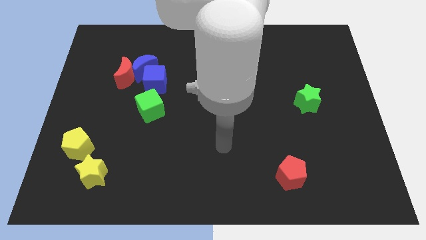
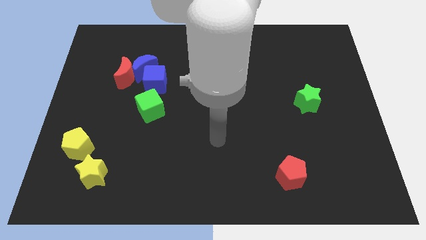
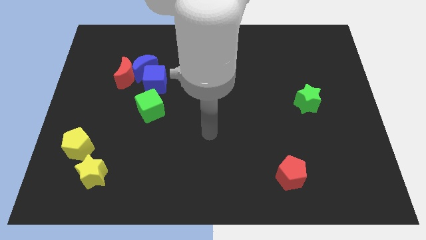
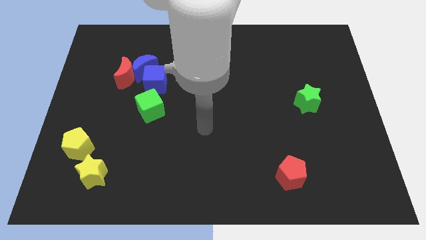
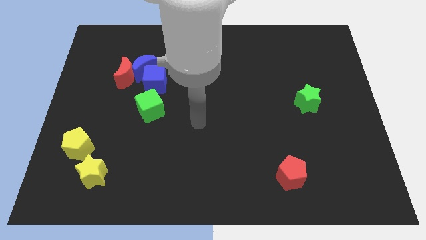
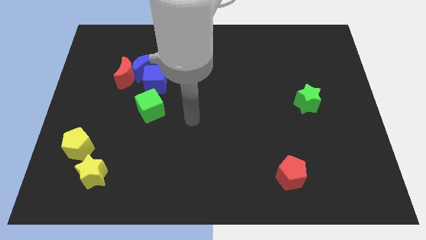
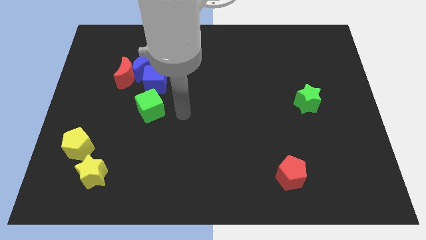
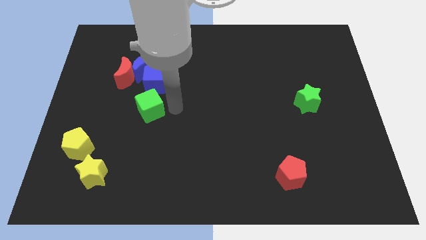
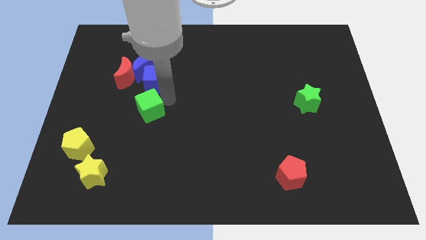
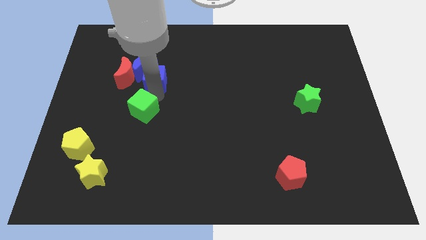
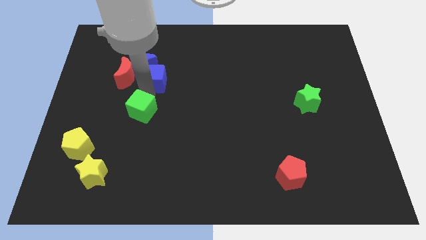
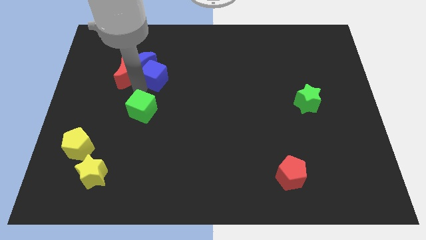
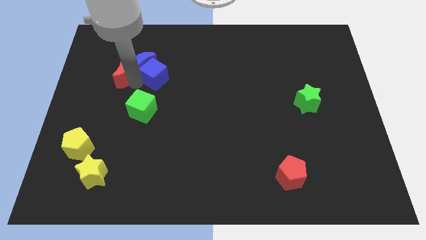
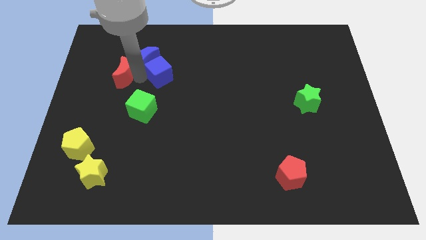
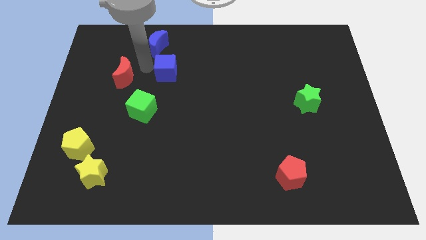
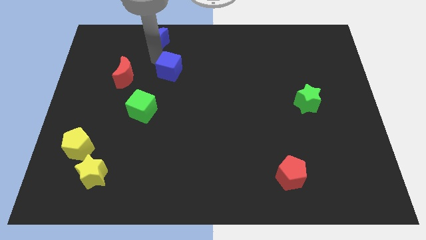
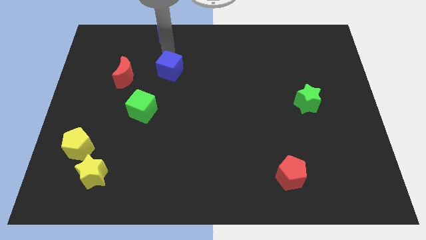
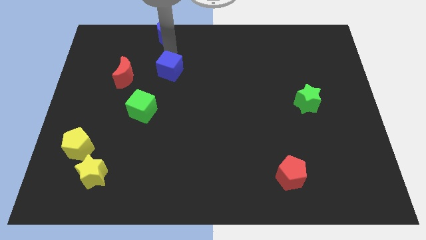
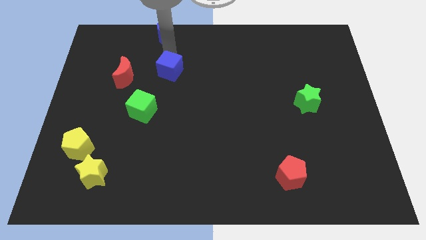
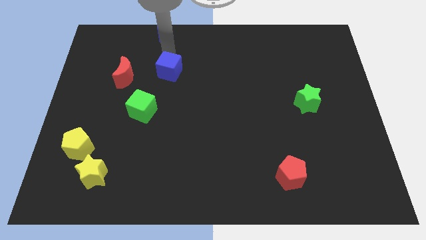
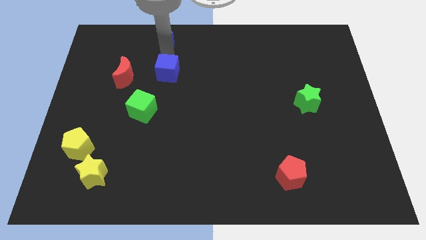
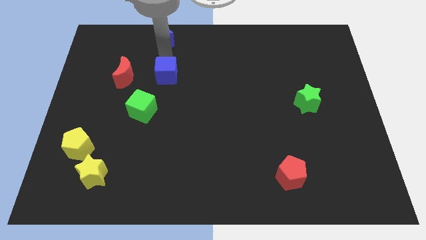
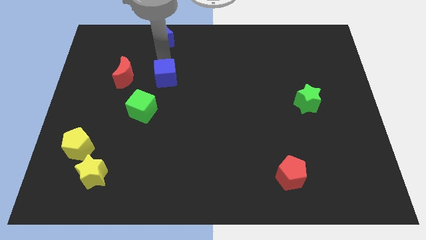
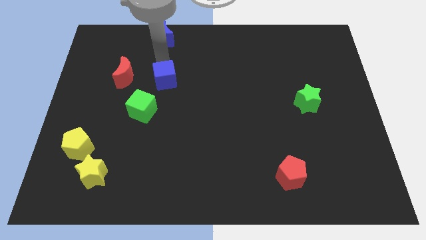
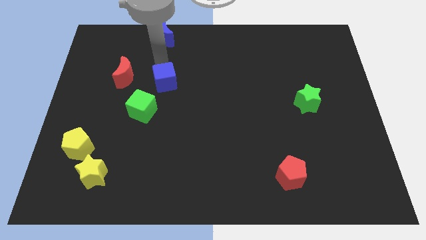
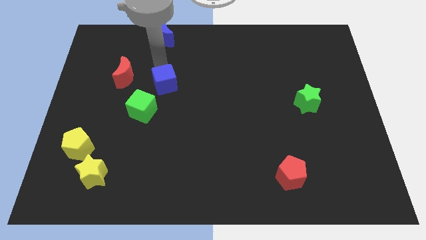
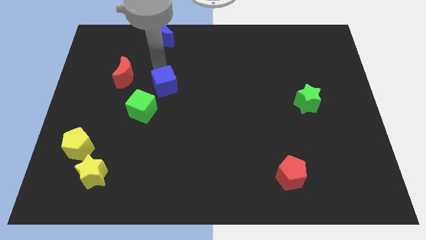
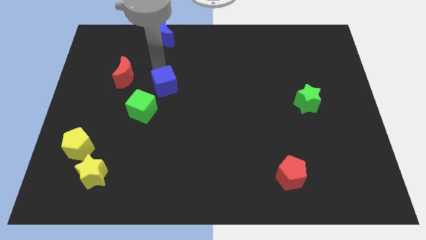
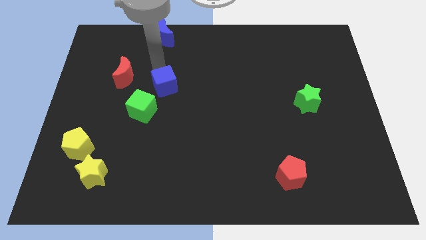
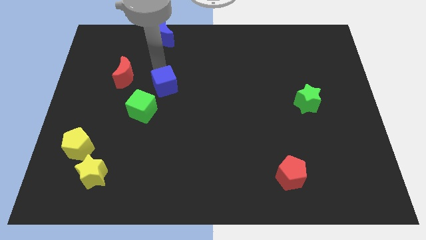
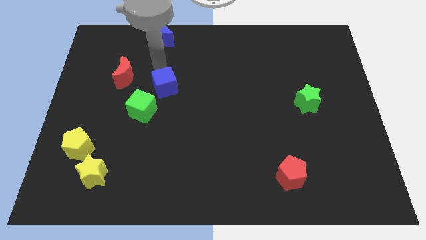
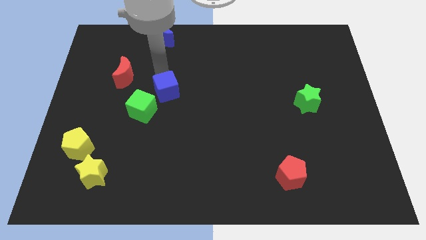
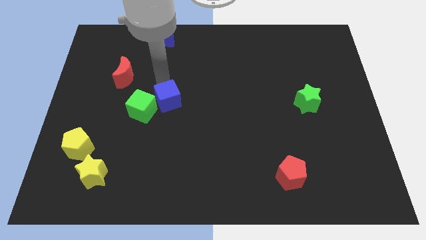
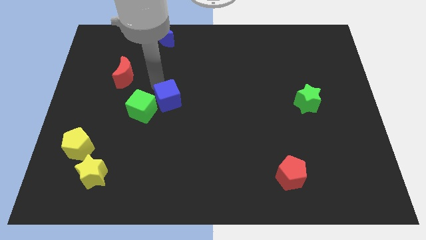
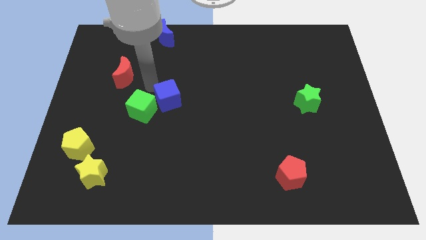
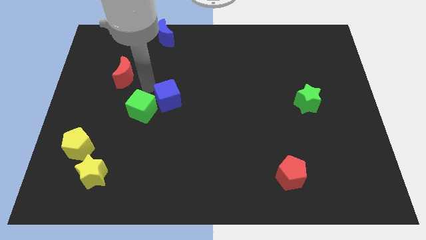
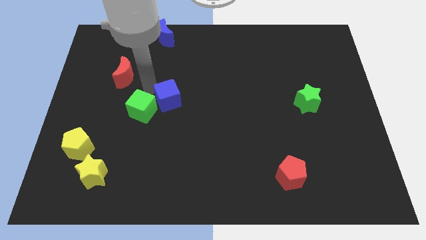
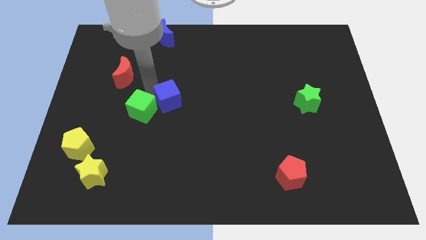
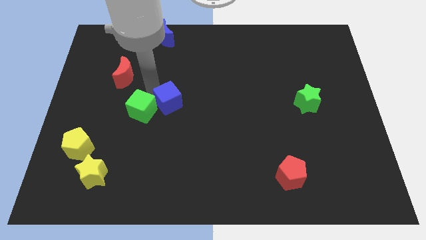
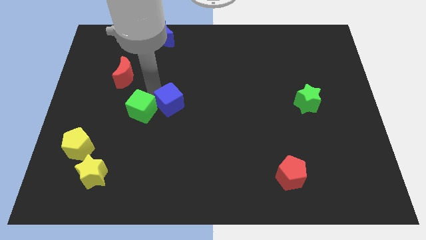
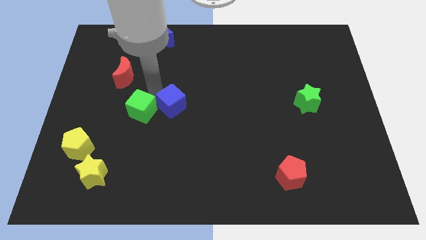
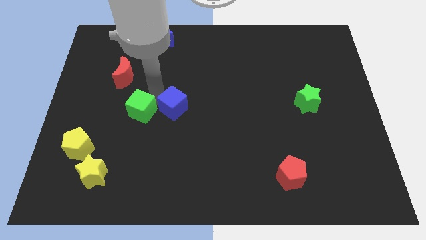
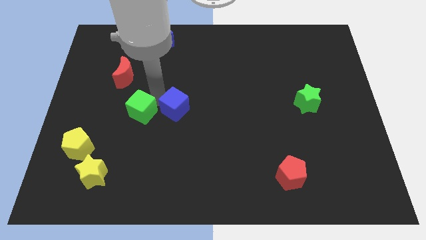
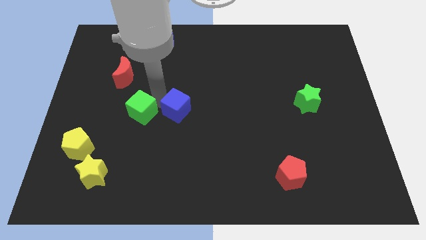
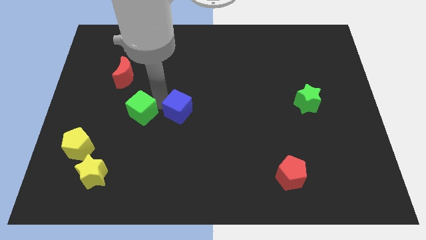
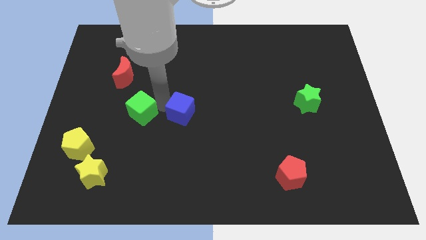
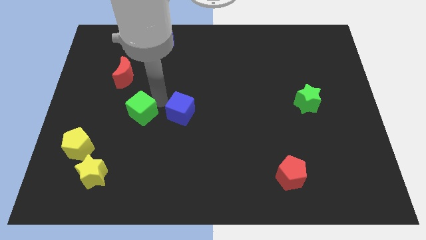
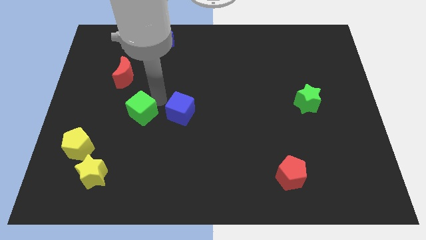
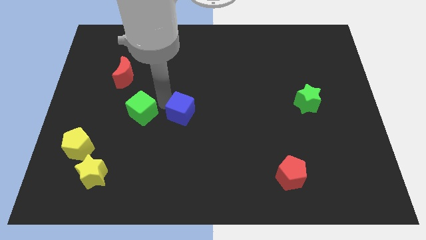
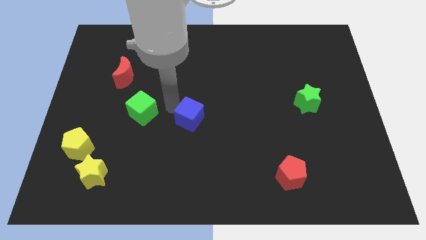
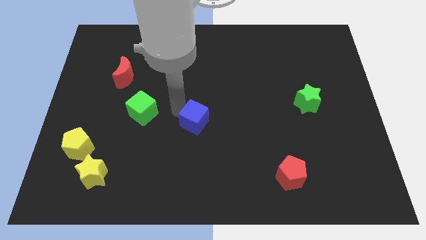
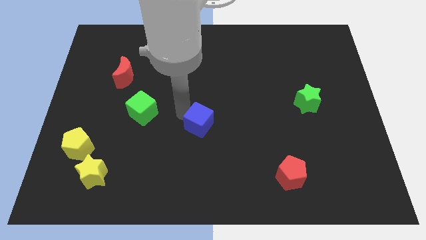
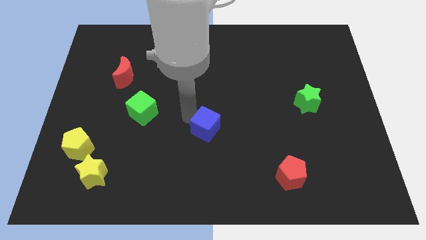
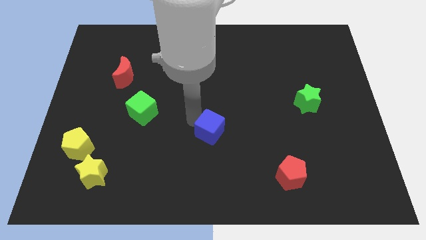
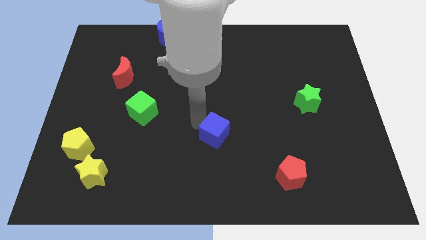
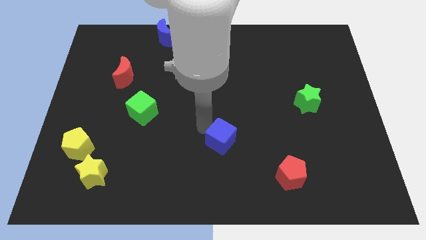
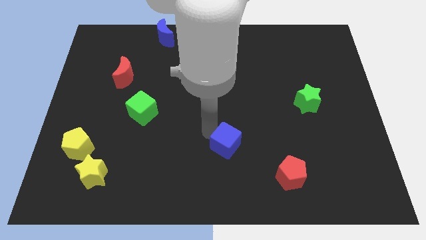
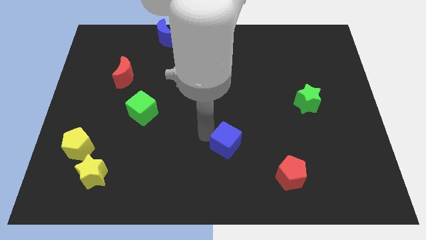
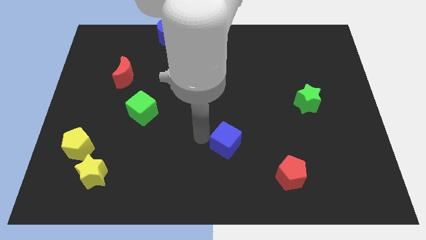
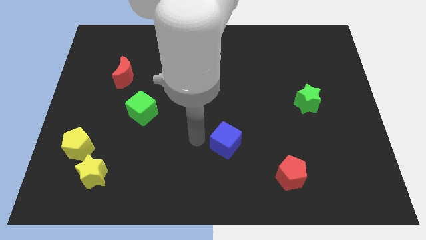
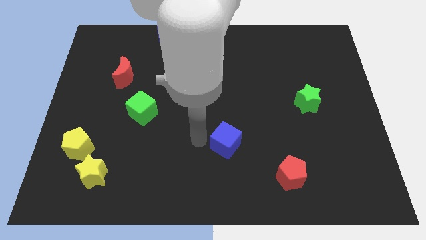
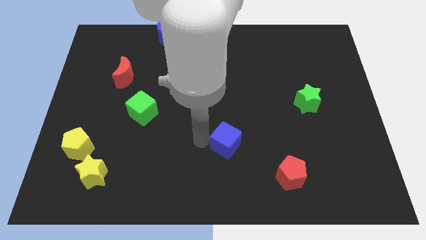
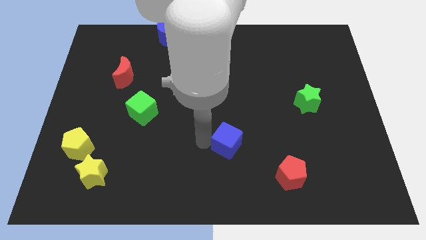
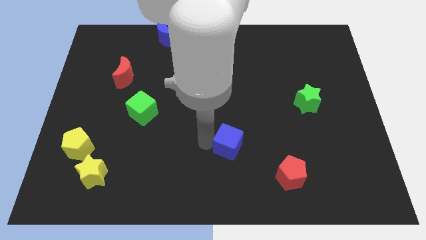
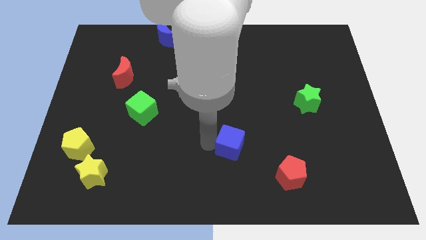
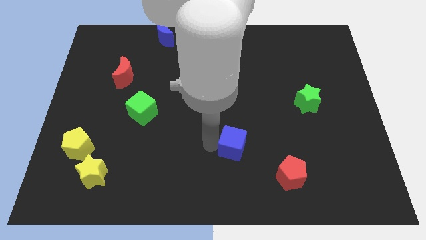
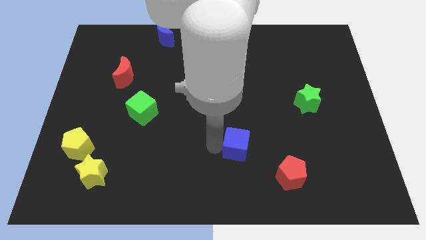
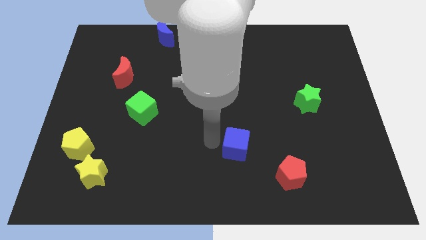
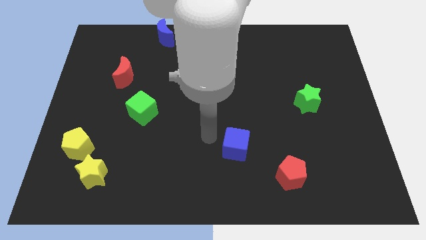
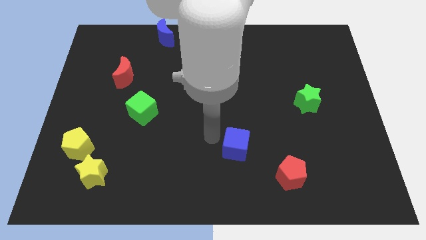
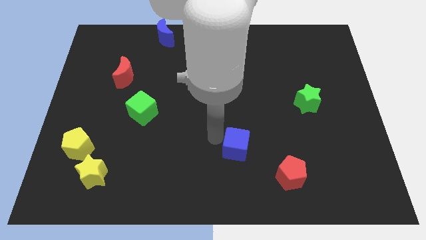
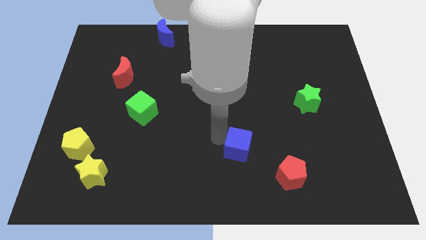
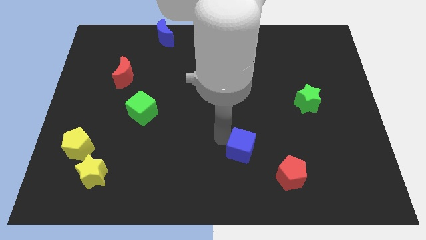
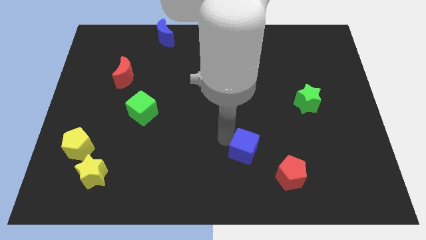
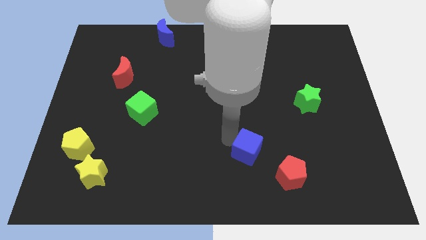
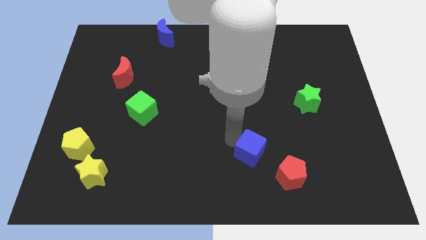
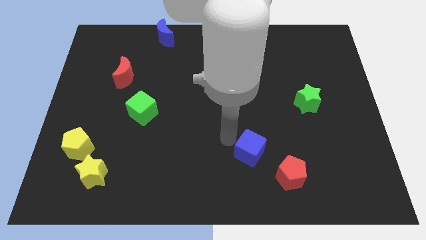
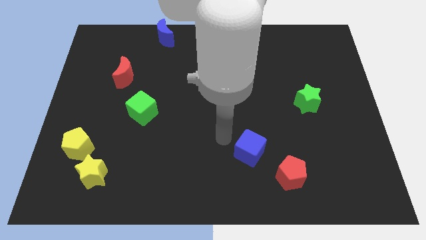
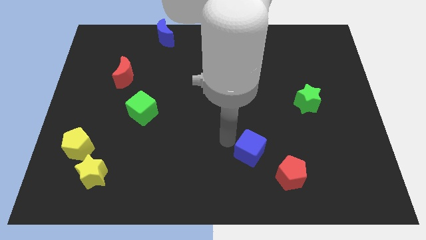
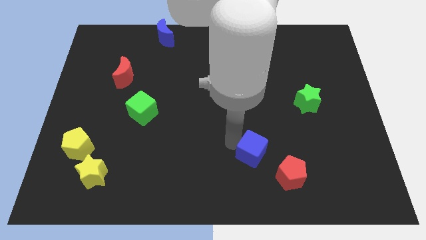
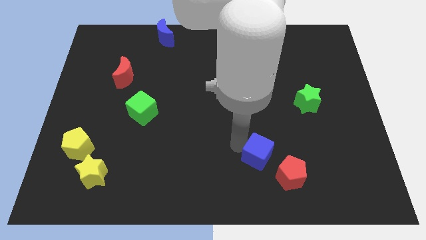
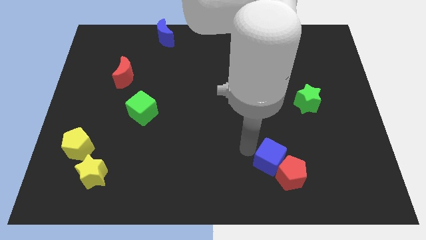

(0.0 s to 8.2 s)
move the blue cube to the red pentagon

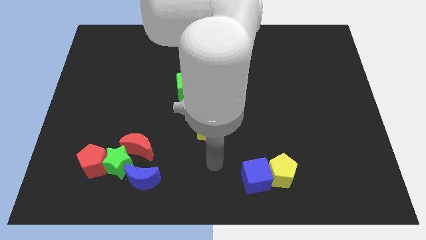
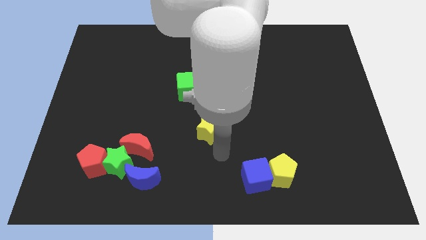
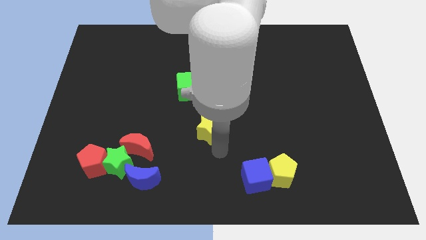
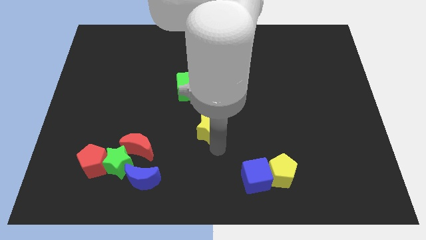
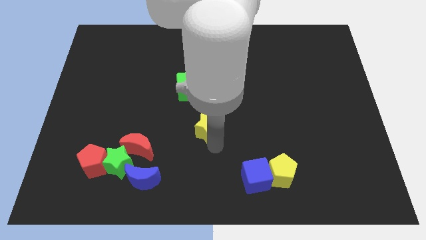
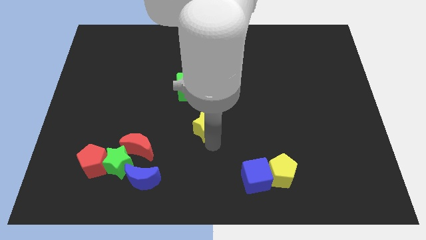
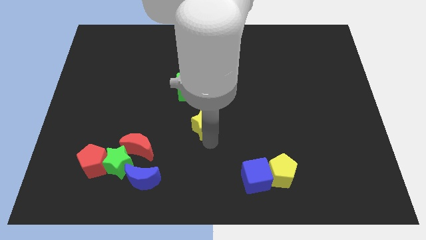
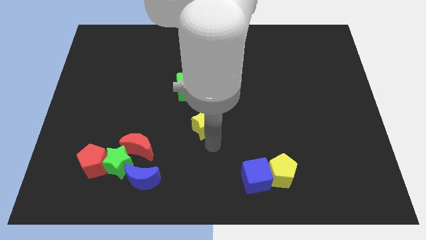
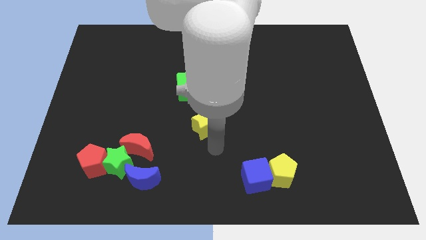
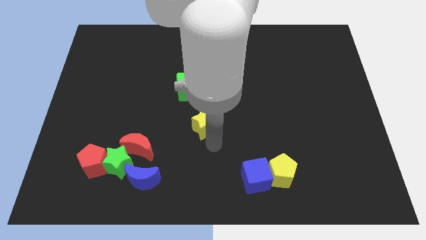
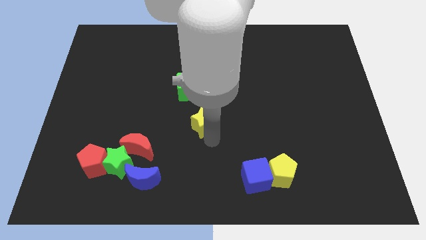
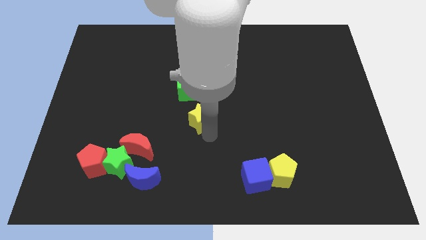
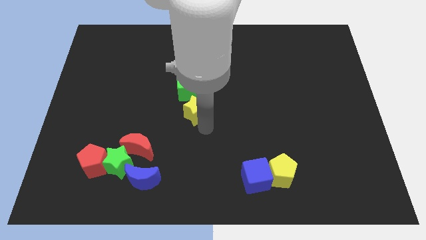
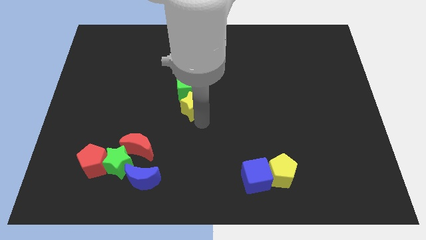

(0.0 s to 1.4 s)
push the yellow star close to the green cube
